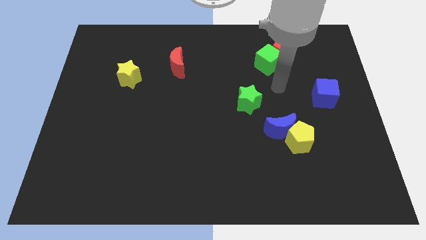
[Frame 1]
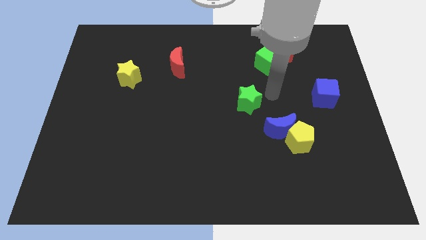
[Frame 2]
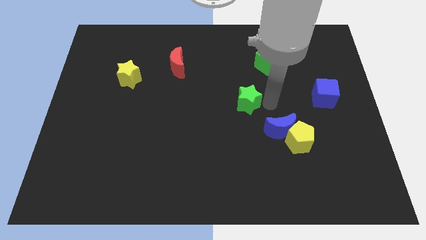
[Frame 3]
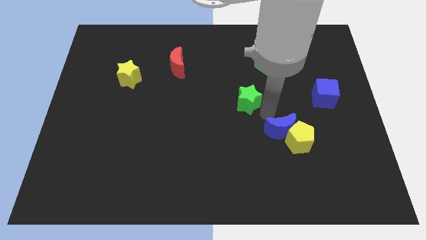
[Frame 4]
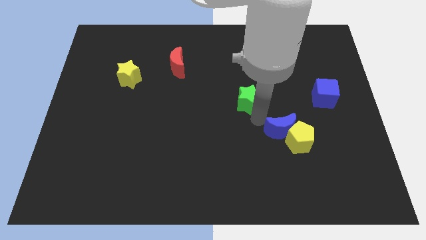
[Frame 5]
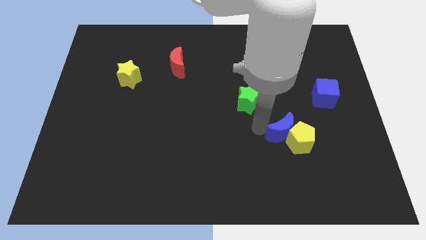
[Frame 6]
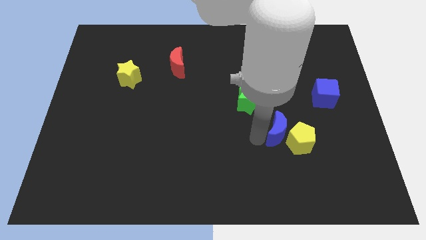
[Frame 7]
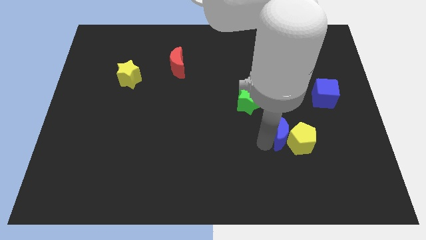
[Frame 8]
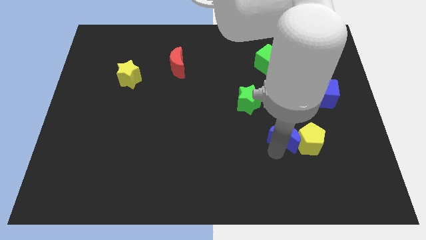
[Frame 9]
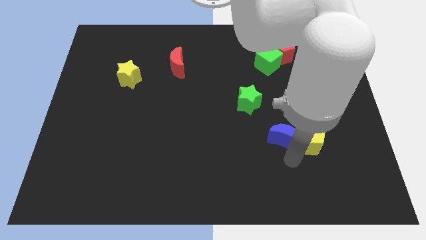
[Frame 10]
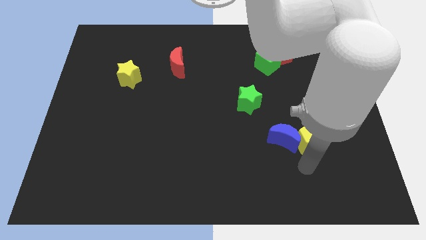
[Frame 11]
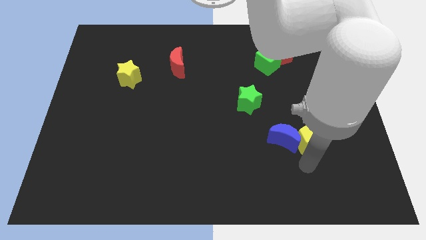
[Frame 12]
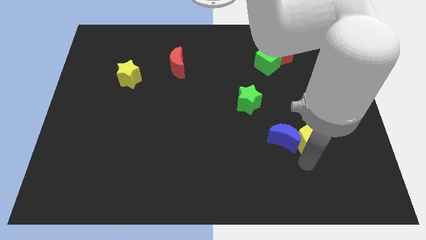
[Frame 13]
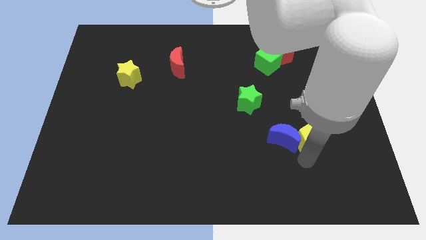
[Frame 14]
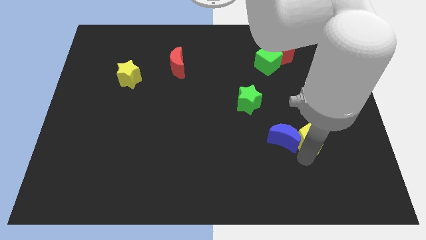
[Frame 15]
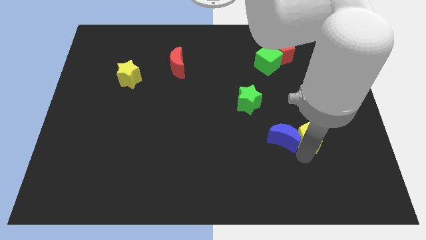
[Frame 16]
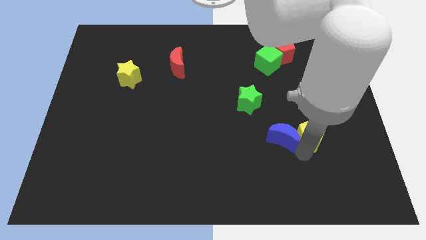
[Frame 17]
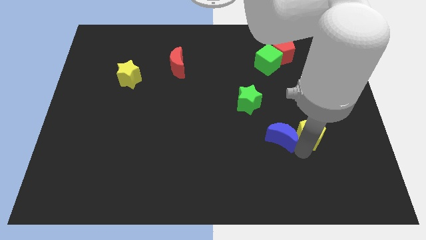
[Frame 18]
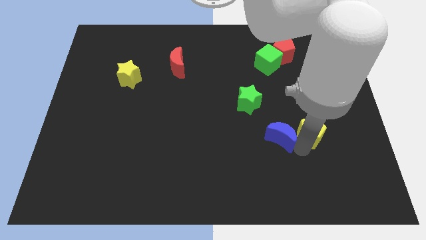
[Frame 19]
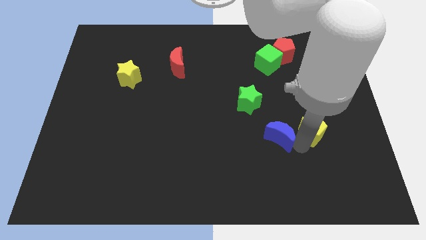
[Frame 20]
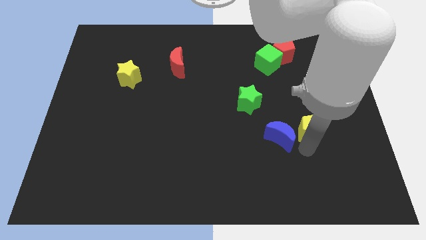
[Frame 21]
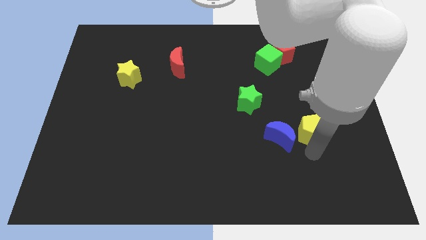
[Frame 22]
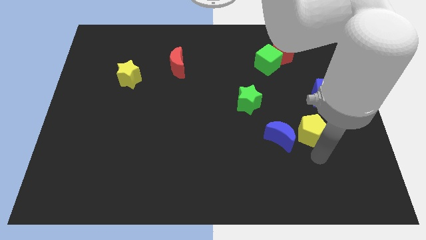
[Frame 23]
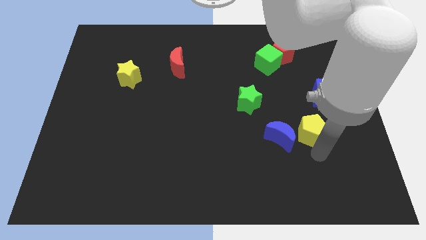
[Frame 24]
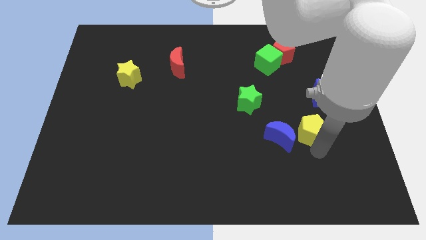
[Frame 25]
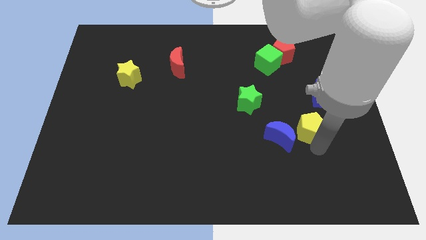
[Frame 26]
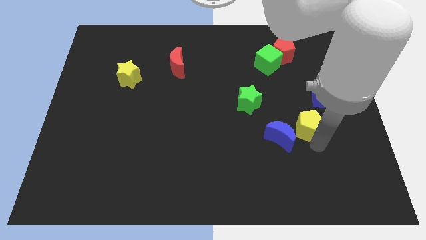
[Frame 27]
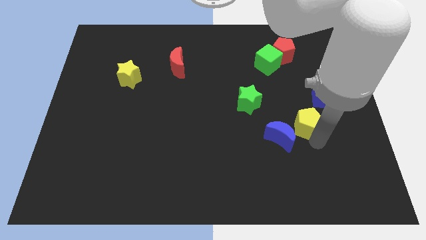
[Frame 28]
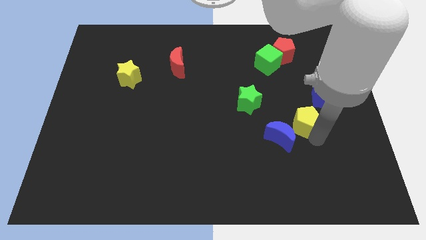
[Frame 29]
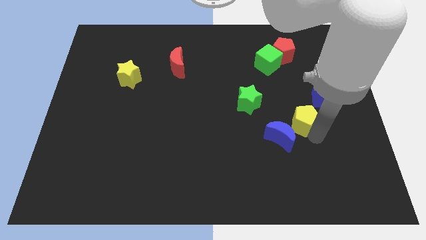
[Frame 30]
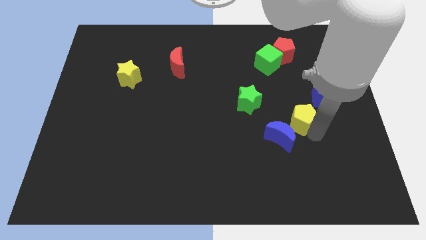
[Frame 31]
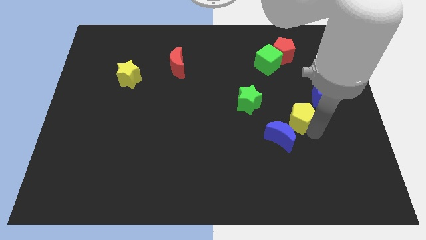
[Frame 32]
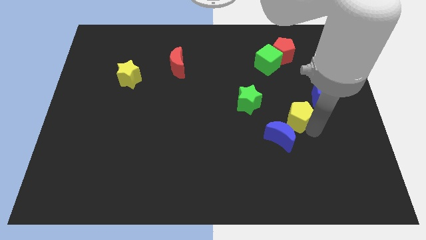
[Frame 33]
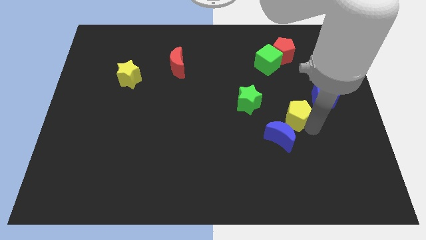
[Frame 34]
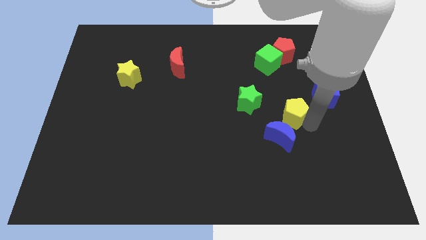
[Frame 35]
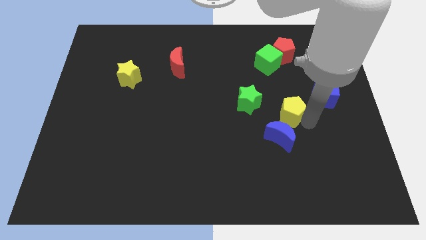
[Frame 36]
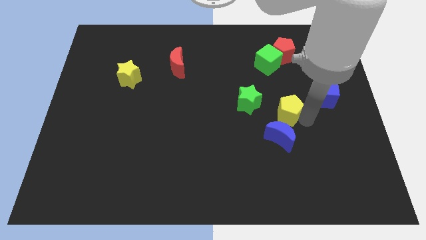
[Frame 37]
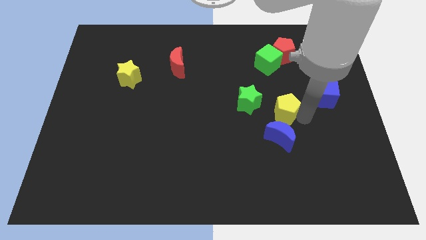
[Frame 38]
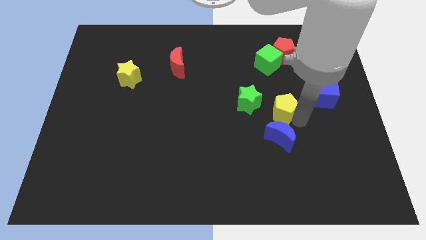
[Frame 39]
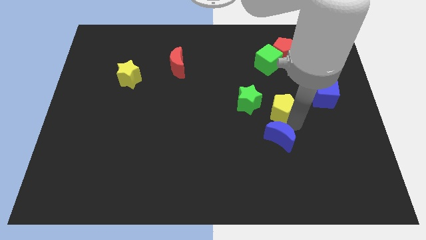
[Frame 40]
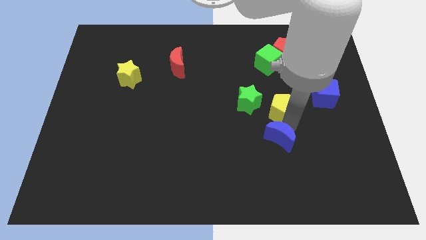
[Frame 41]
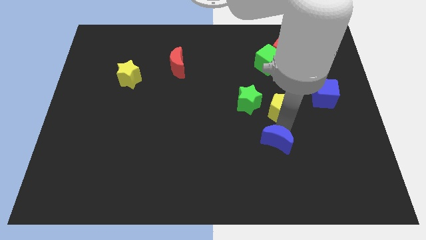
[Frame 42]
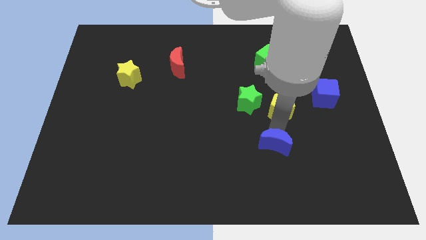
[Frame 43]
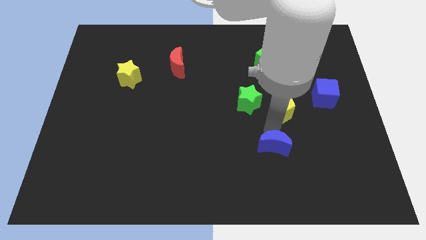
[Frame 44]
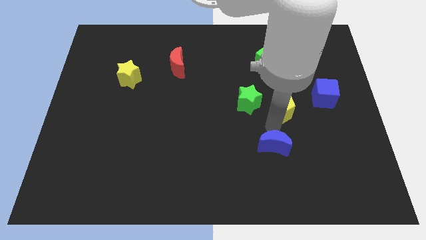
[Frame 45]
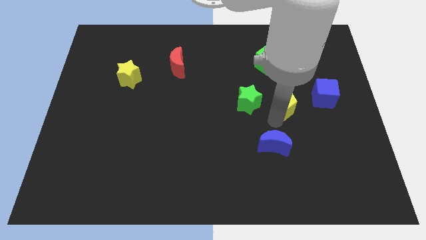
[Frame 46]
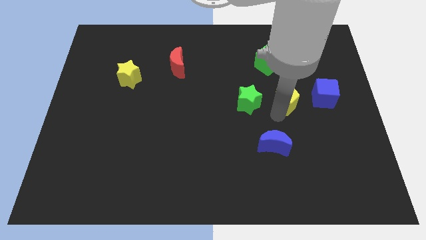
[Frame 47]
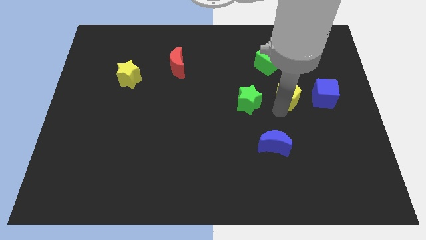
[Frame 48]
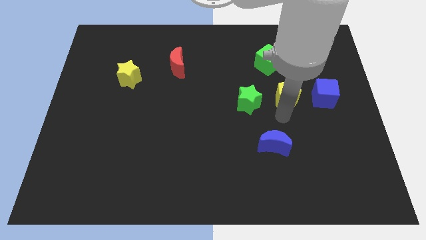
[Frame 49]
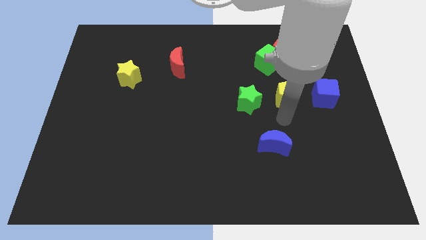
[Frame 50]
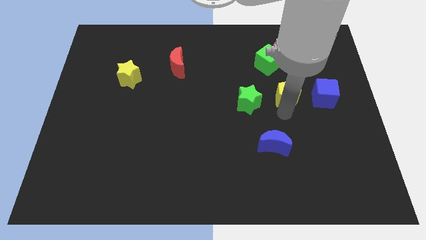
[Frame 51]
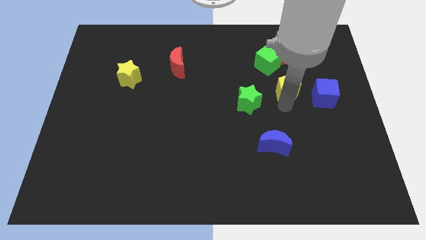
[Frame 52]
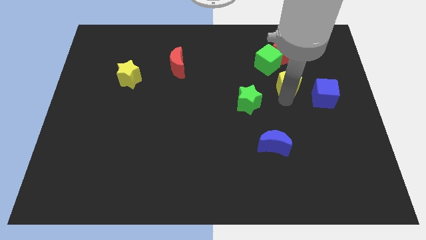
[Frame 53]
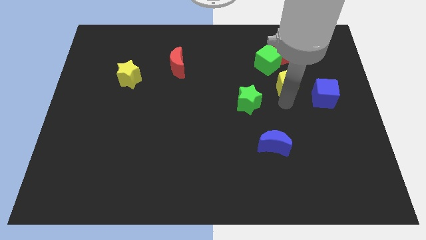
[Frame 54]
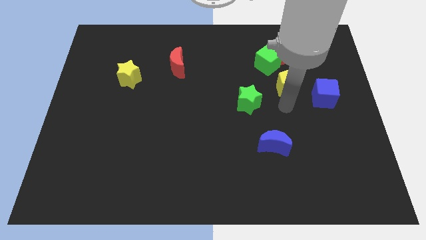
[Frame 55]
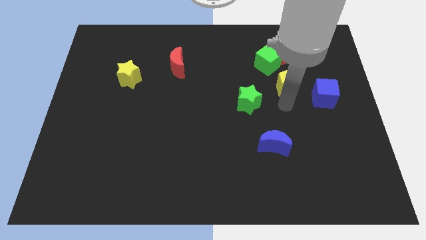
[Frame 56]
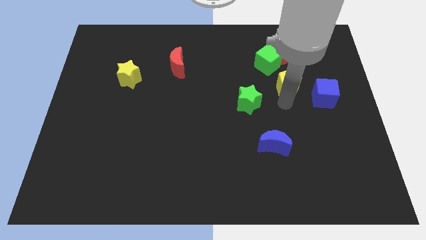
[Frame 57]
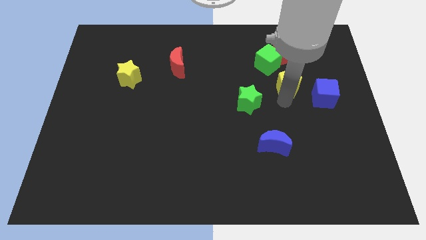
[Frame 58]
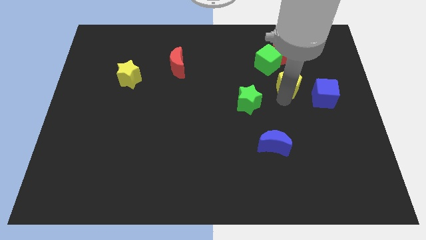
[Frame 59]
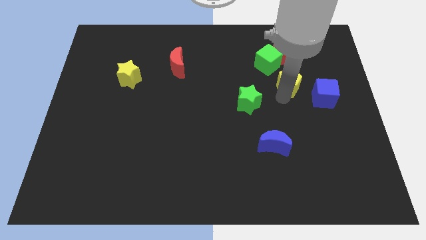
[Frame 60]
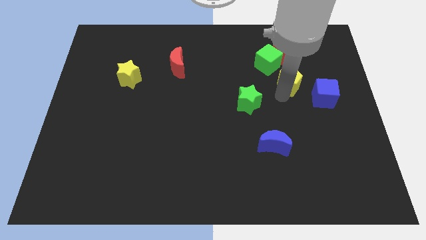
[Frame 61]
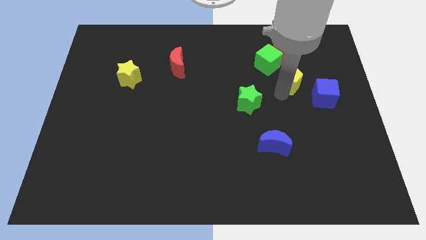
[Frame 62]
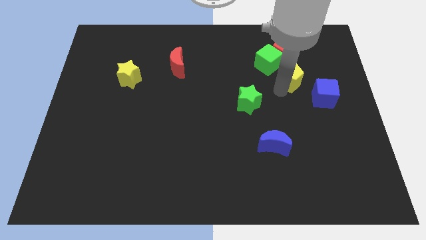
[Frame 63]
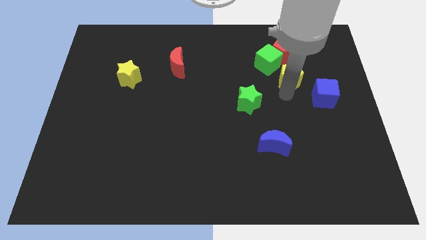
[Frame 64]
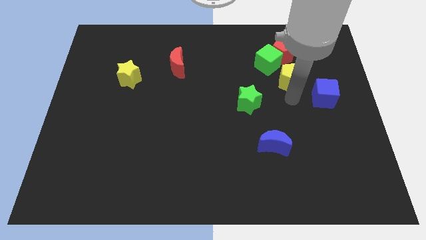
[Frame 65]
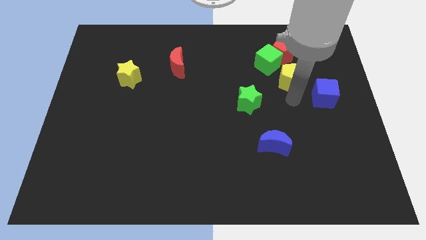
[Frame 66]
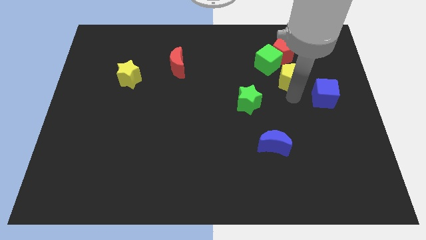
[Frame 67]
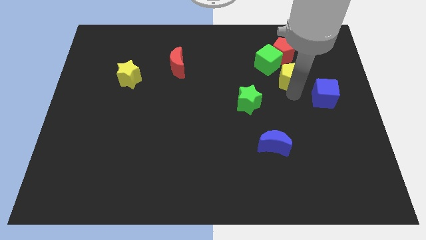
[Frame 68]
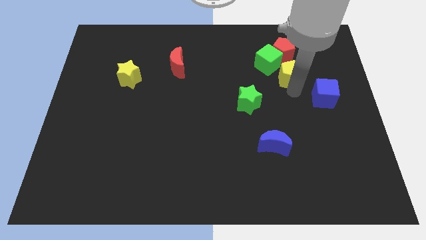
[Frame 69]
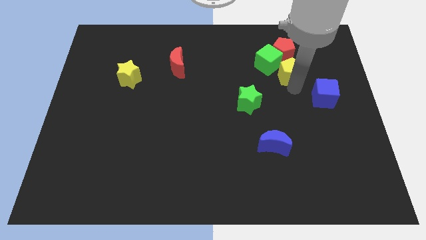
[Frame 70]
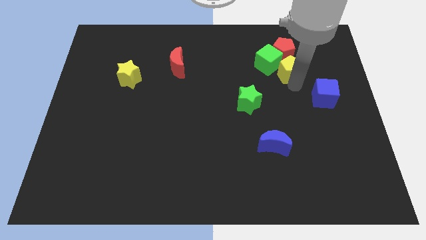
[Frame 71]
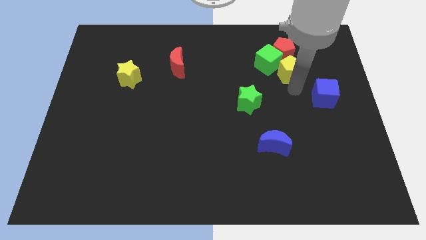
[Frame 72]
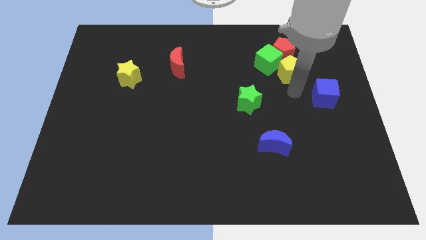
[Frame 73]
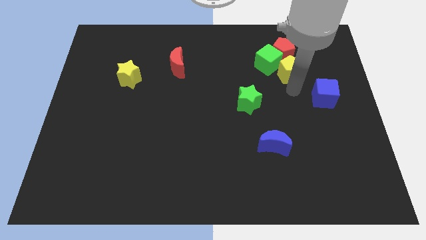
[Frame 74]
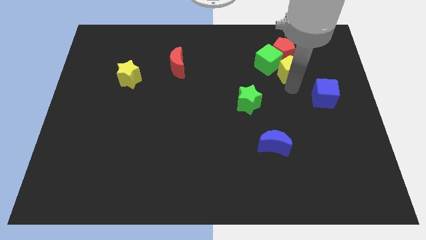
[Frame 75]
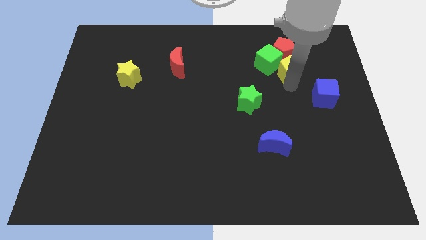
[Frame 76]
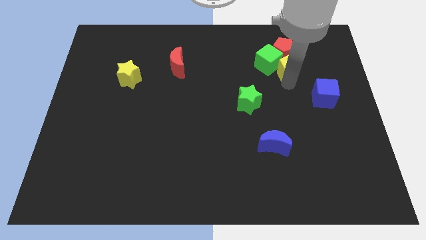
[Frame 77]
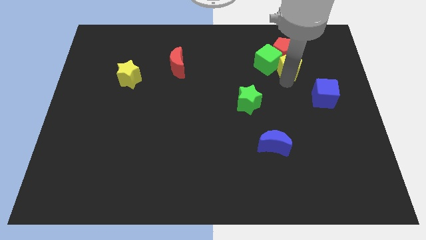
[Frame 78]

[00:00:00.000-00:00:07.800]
put the yellow pentagon to the red pentagon
